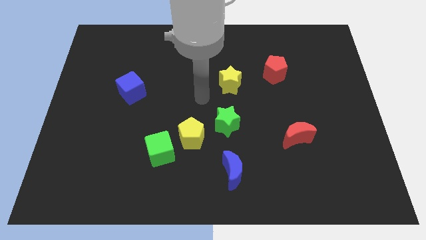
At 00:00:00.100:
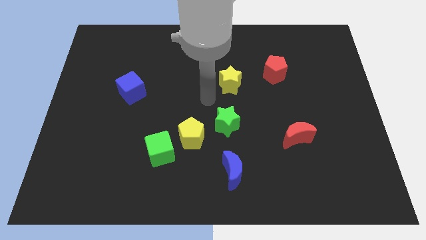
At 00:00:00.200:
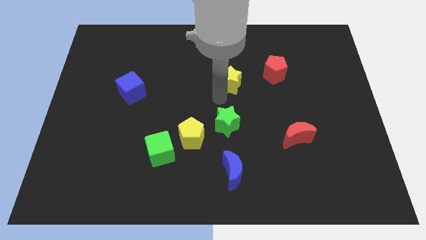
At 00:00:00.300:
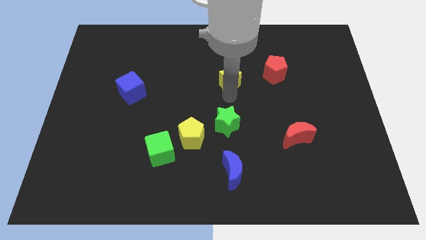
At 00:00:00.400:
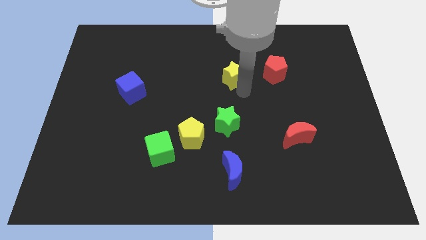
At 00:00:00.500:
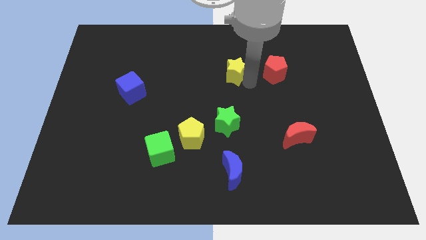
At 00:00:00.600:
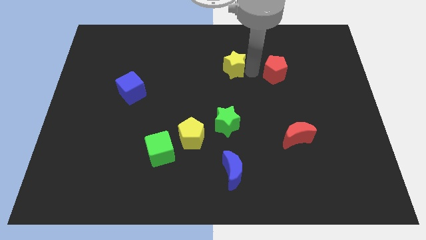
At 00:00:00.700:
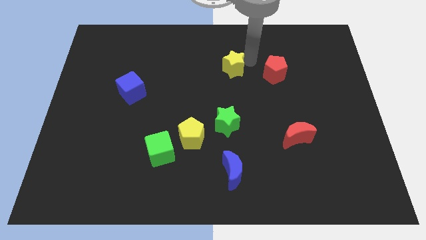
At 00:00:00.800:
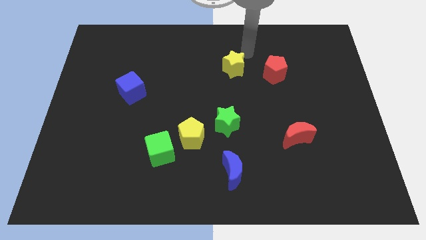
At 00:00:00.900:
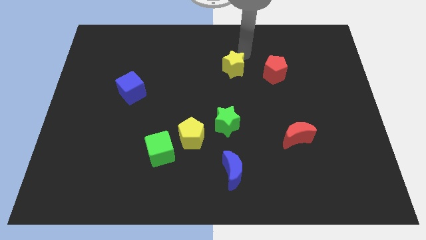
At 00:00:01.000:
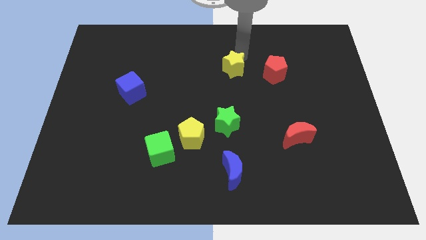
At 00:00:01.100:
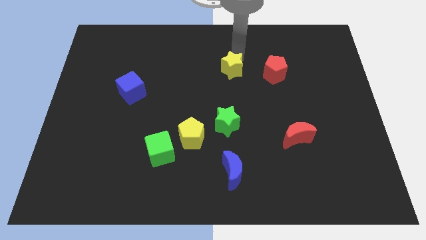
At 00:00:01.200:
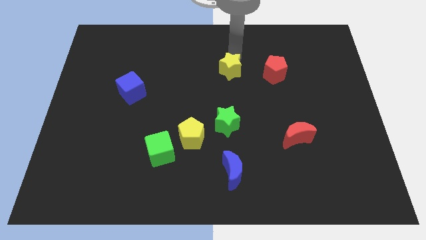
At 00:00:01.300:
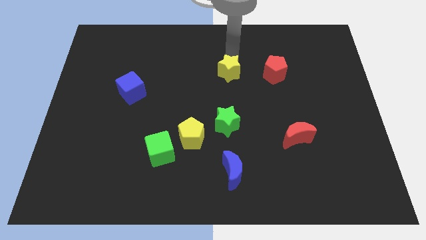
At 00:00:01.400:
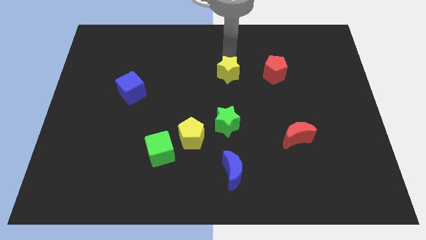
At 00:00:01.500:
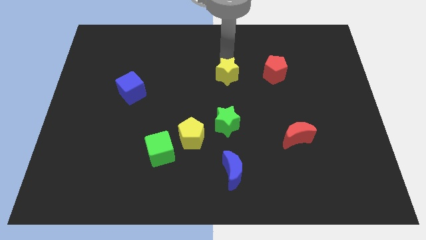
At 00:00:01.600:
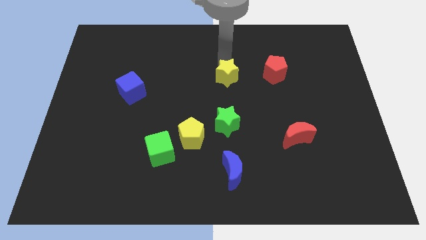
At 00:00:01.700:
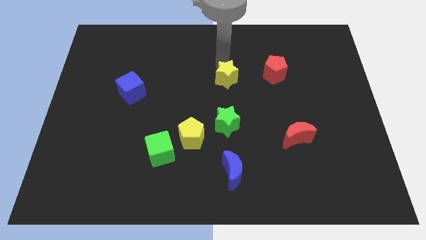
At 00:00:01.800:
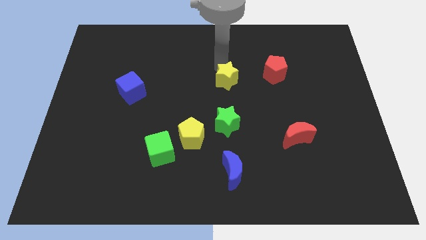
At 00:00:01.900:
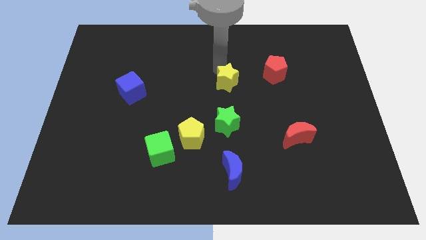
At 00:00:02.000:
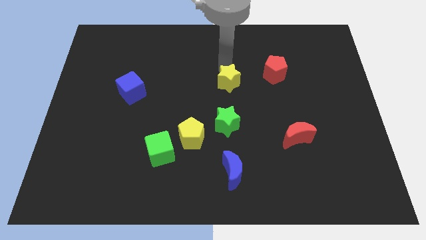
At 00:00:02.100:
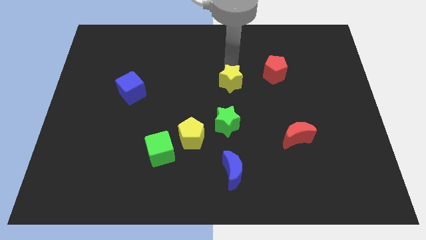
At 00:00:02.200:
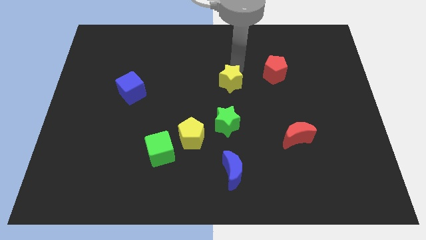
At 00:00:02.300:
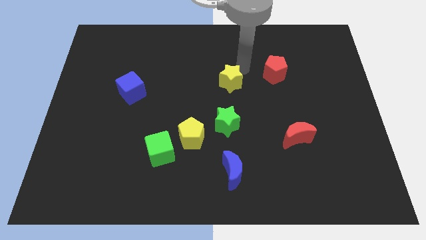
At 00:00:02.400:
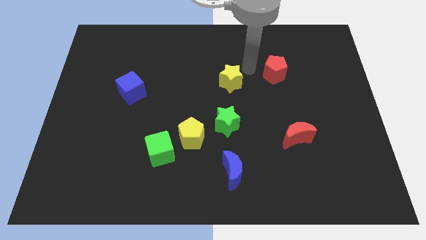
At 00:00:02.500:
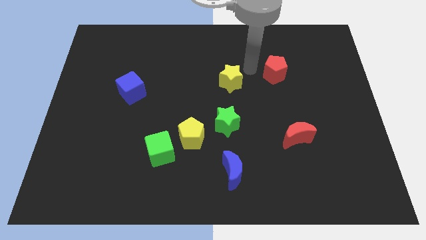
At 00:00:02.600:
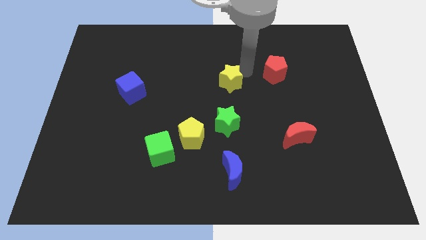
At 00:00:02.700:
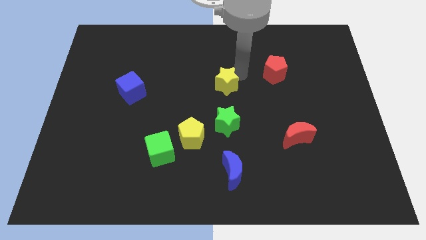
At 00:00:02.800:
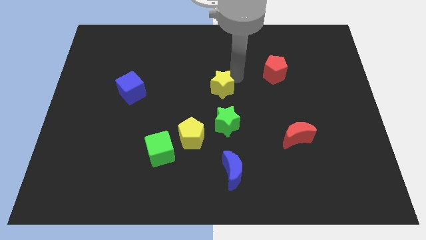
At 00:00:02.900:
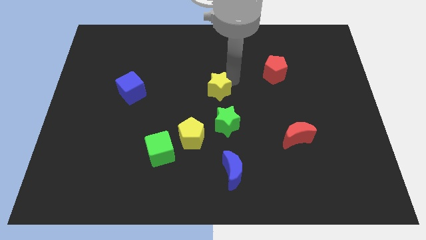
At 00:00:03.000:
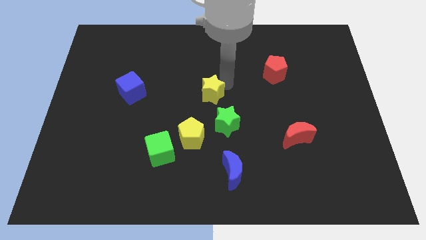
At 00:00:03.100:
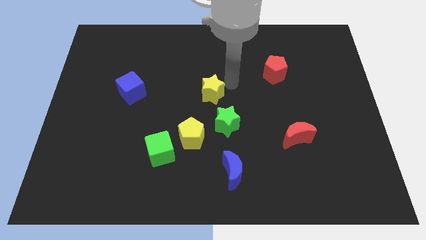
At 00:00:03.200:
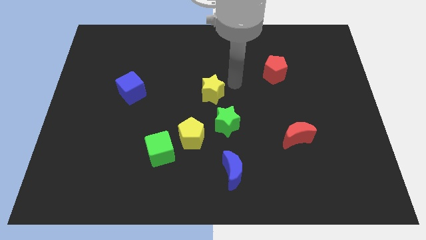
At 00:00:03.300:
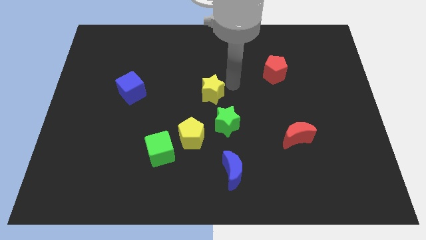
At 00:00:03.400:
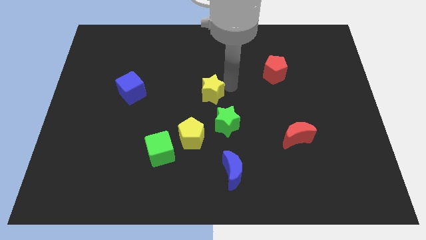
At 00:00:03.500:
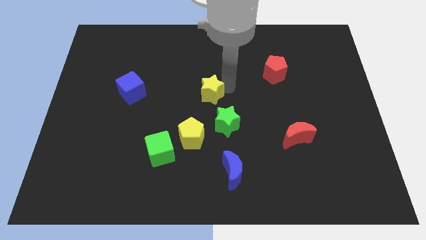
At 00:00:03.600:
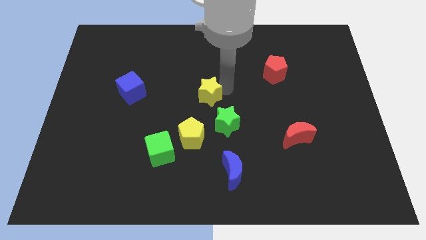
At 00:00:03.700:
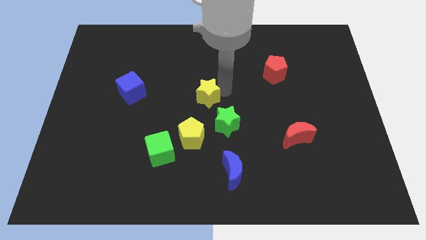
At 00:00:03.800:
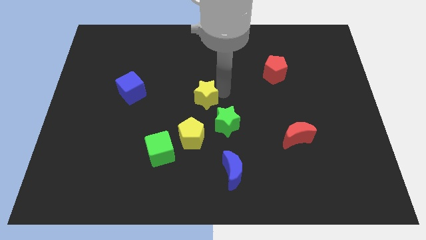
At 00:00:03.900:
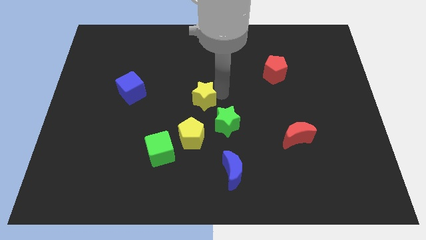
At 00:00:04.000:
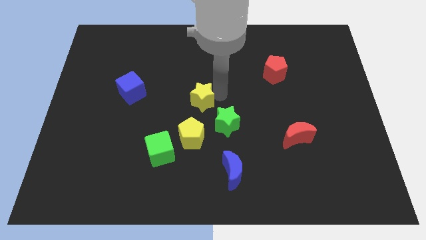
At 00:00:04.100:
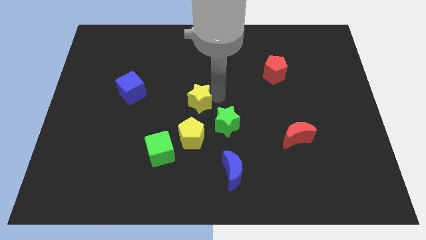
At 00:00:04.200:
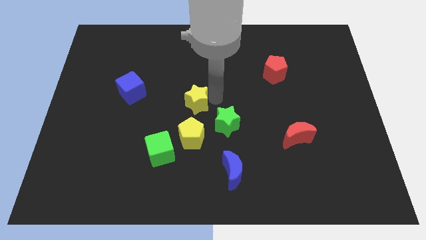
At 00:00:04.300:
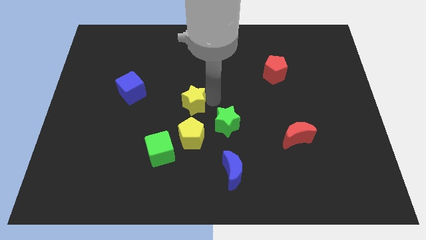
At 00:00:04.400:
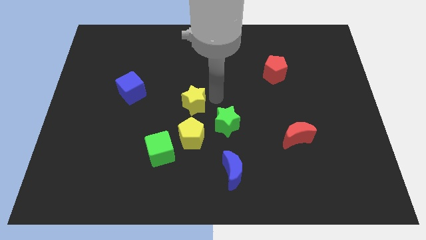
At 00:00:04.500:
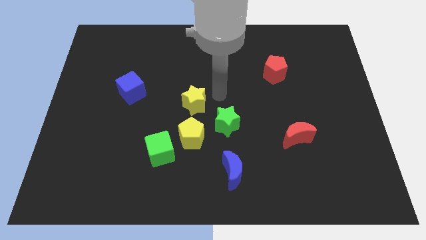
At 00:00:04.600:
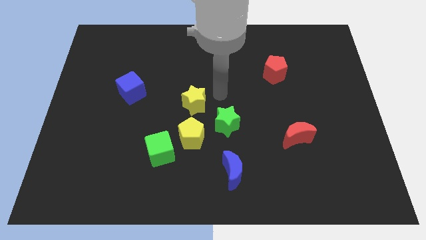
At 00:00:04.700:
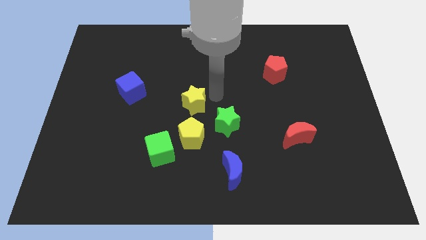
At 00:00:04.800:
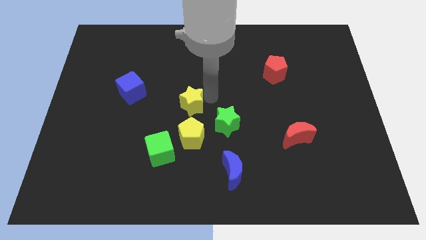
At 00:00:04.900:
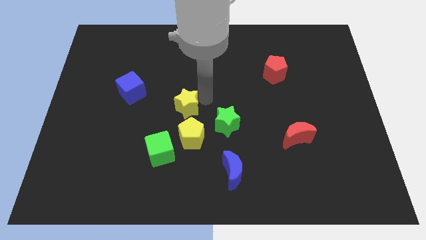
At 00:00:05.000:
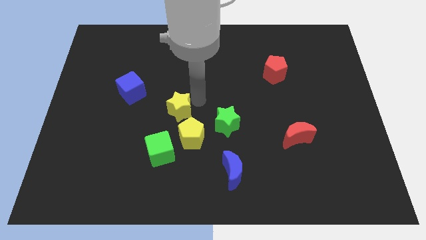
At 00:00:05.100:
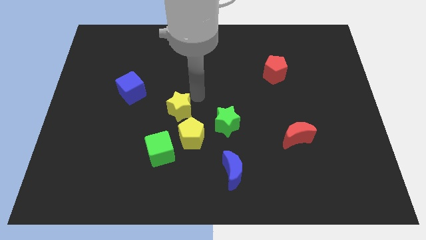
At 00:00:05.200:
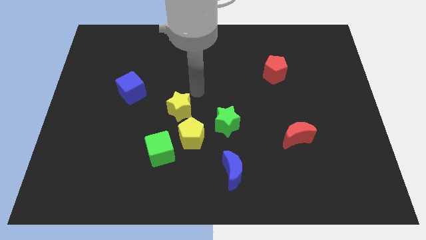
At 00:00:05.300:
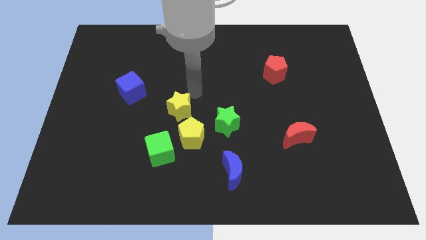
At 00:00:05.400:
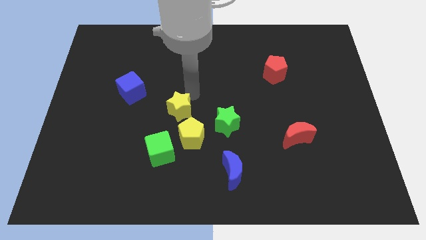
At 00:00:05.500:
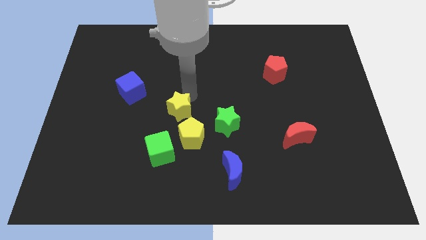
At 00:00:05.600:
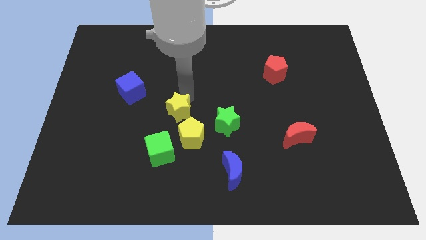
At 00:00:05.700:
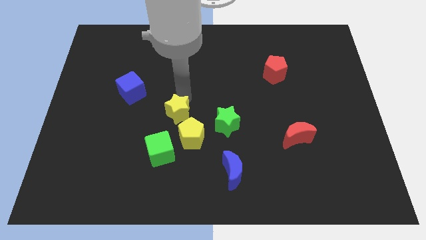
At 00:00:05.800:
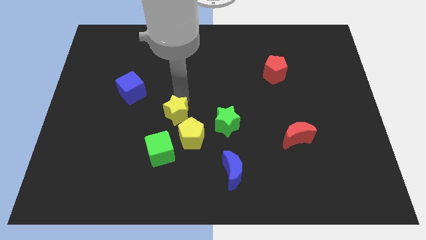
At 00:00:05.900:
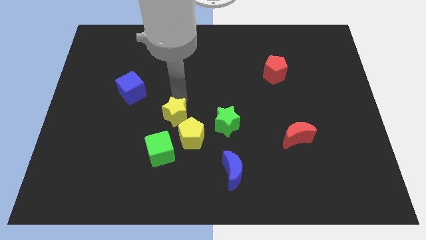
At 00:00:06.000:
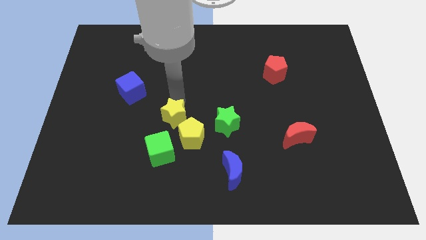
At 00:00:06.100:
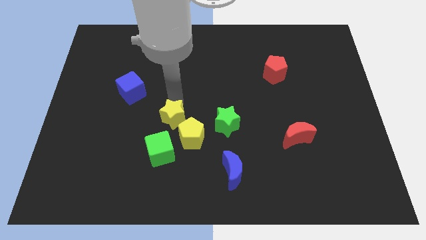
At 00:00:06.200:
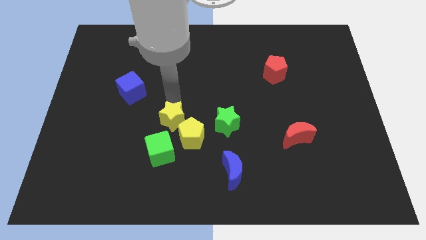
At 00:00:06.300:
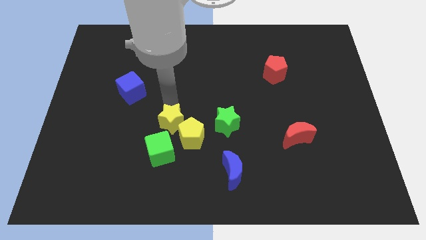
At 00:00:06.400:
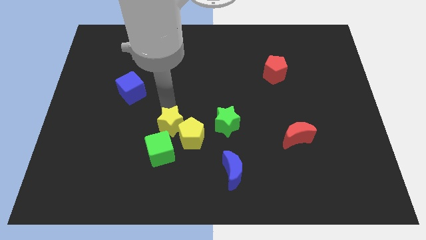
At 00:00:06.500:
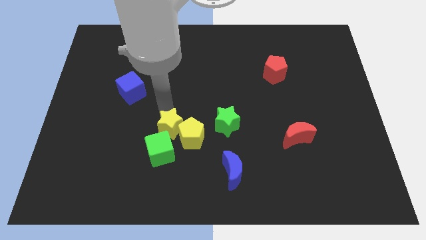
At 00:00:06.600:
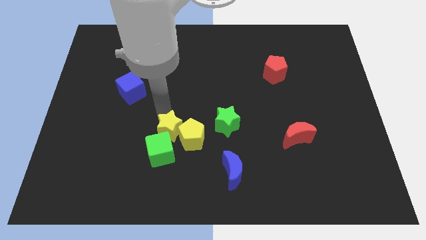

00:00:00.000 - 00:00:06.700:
slide the yellow star downwards and left diagonally

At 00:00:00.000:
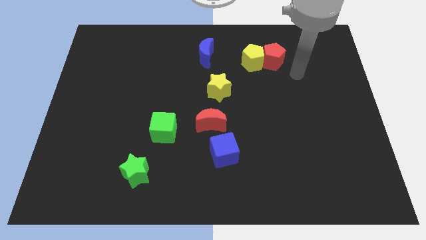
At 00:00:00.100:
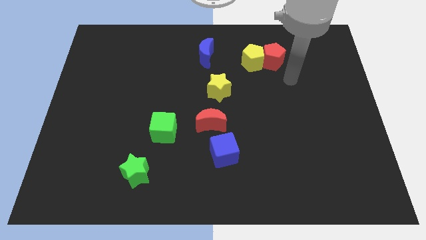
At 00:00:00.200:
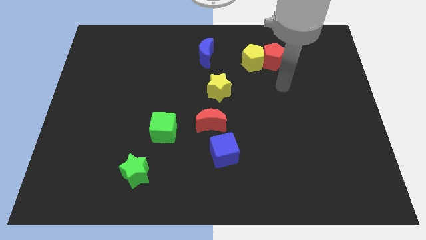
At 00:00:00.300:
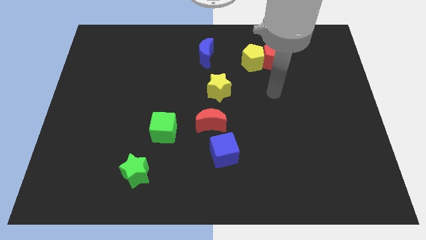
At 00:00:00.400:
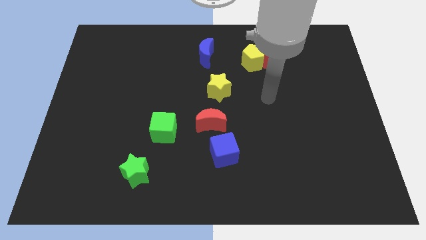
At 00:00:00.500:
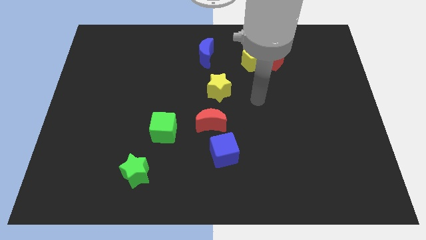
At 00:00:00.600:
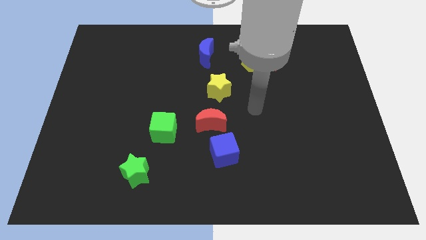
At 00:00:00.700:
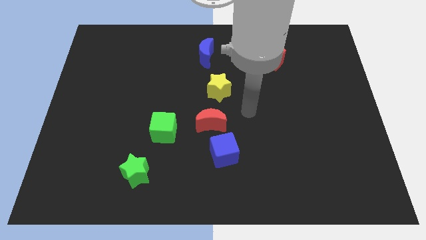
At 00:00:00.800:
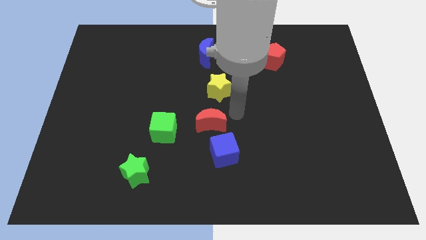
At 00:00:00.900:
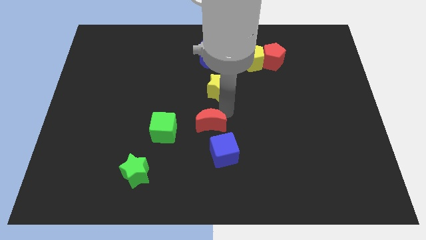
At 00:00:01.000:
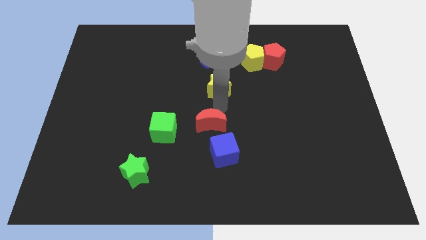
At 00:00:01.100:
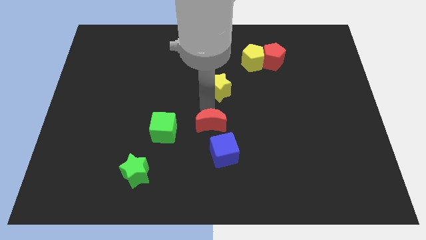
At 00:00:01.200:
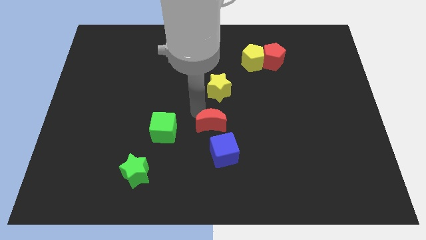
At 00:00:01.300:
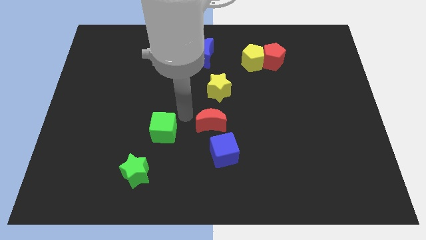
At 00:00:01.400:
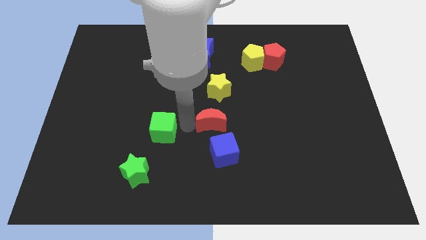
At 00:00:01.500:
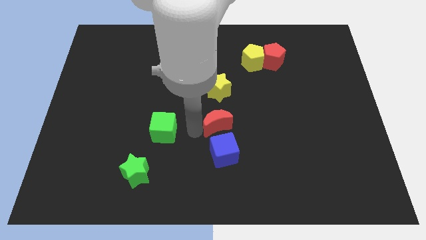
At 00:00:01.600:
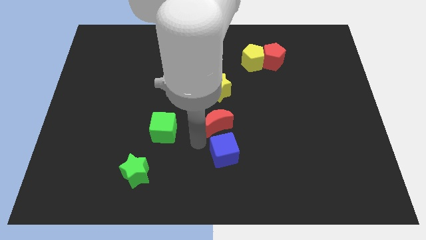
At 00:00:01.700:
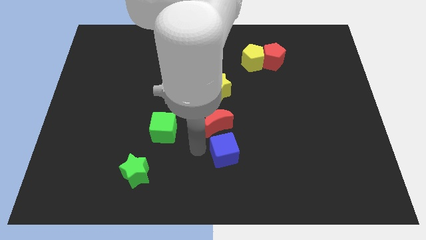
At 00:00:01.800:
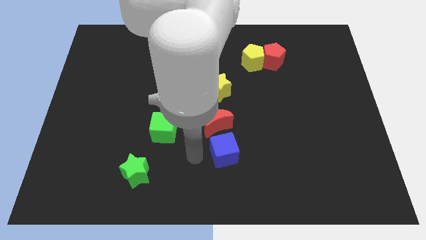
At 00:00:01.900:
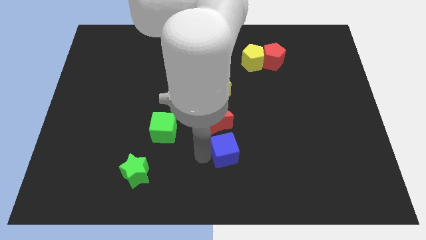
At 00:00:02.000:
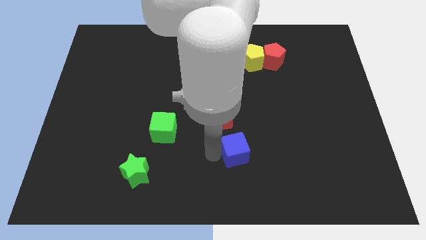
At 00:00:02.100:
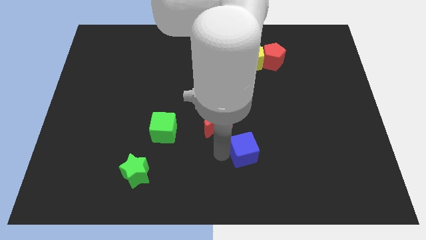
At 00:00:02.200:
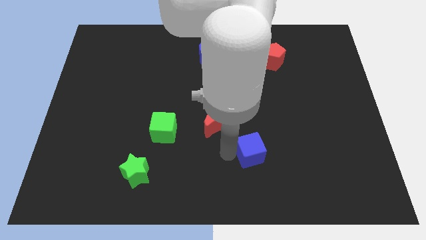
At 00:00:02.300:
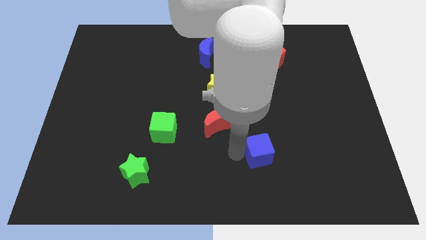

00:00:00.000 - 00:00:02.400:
push the blue cube slightly right
